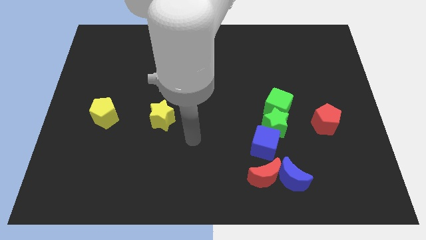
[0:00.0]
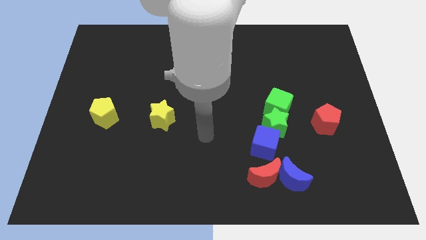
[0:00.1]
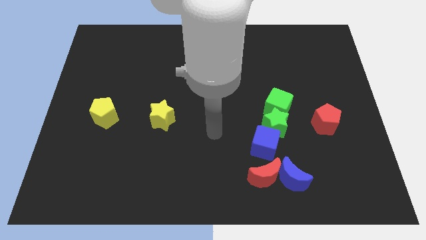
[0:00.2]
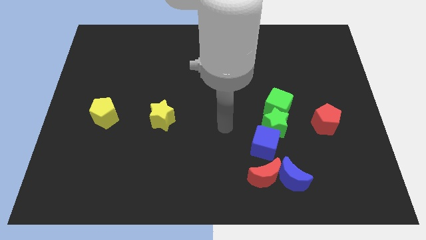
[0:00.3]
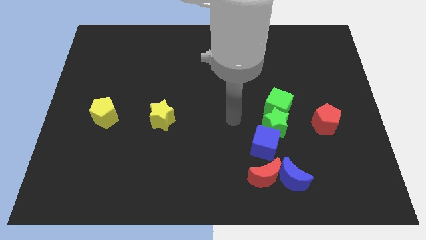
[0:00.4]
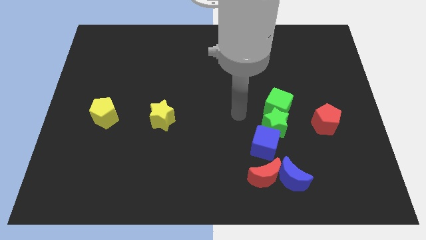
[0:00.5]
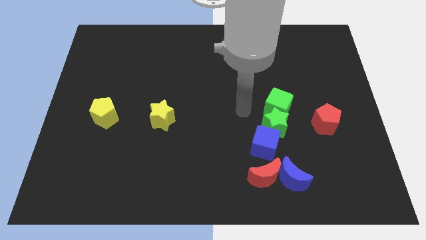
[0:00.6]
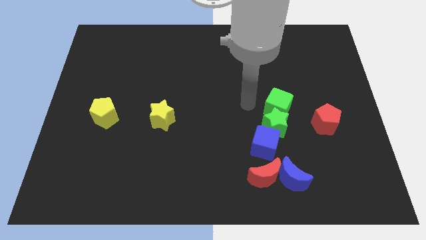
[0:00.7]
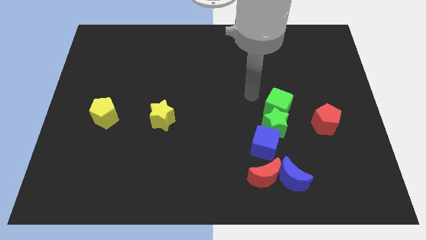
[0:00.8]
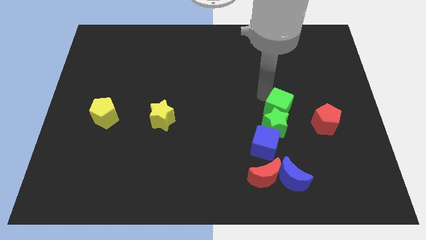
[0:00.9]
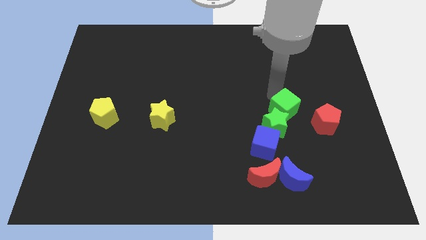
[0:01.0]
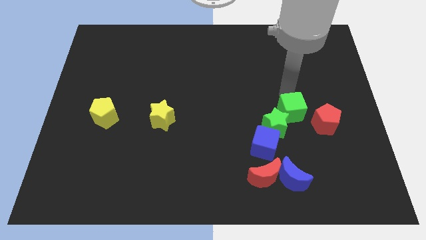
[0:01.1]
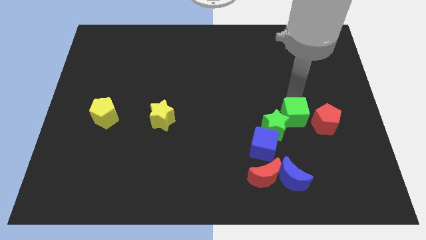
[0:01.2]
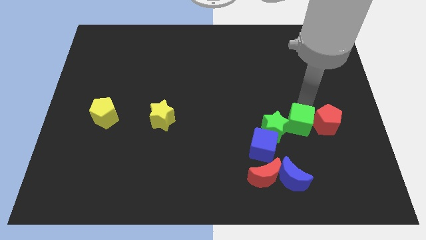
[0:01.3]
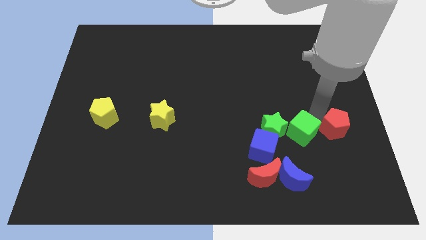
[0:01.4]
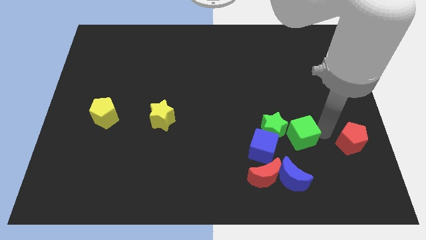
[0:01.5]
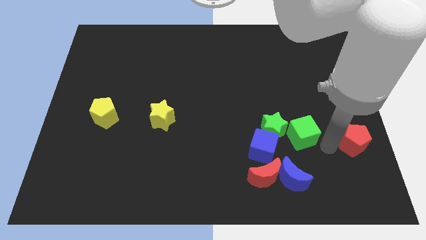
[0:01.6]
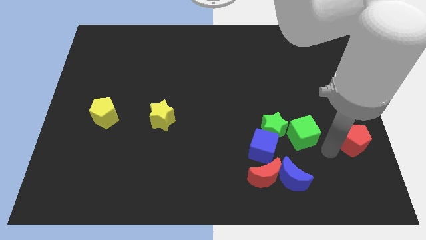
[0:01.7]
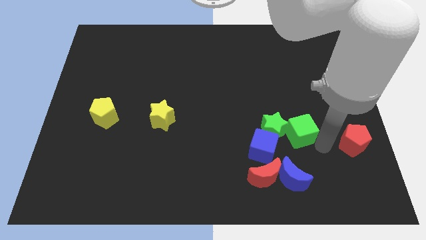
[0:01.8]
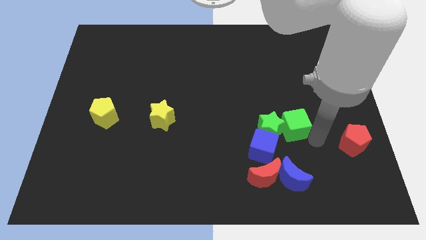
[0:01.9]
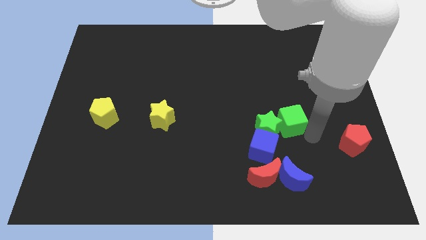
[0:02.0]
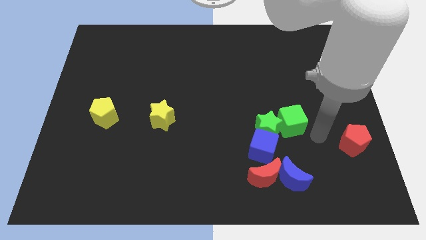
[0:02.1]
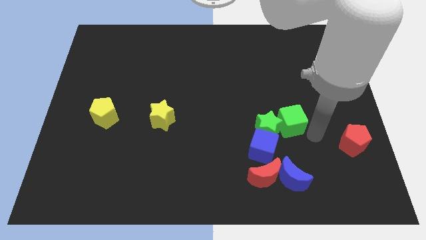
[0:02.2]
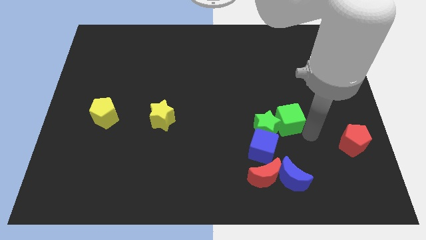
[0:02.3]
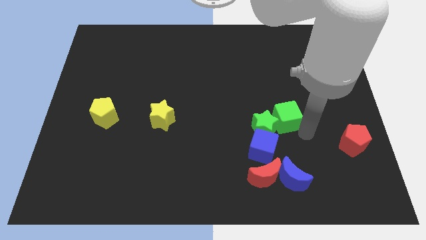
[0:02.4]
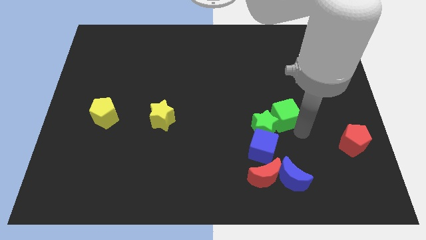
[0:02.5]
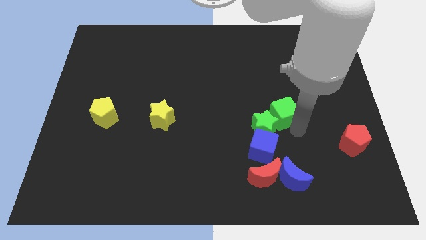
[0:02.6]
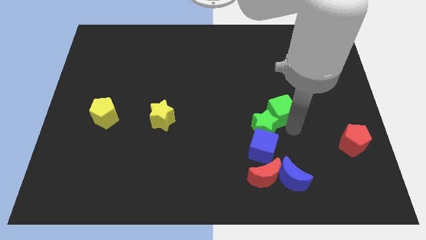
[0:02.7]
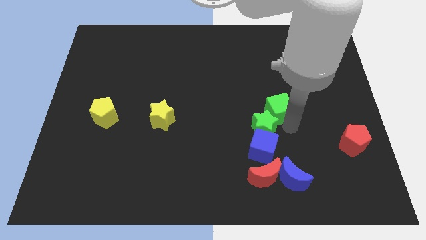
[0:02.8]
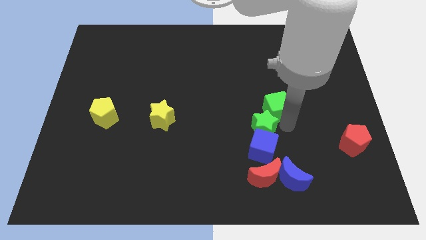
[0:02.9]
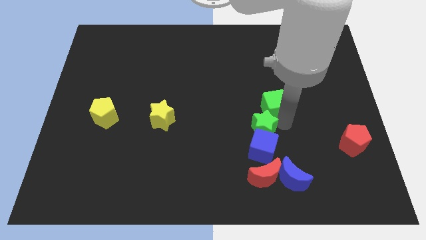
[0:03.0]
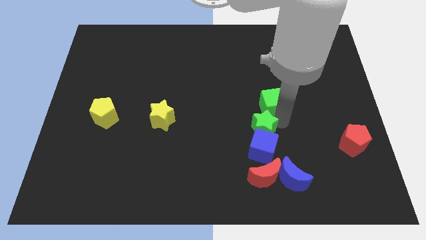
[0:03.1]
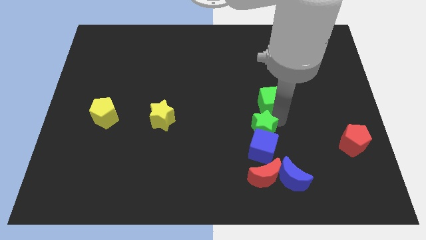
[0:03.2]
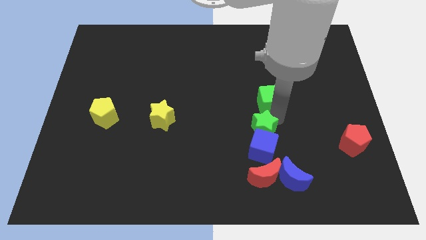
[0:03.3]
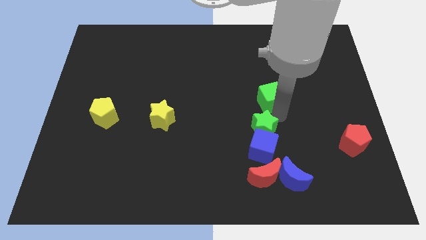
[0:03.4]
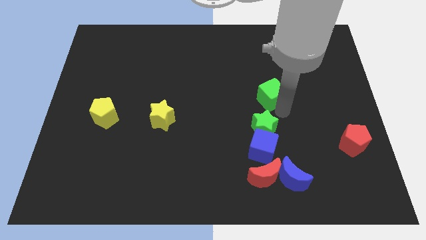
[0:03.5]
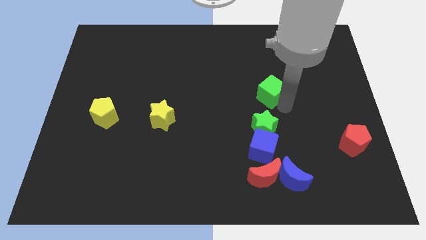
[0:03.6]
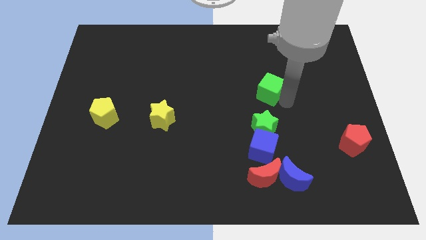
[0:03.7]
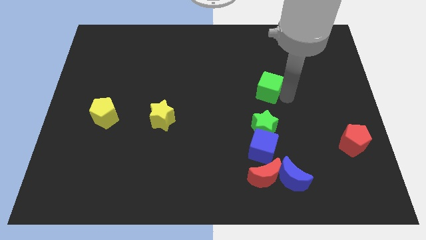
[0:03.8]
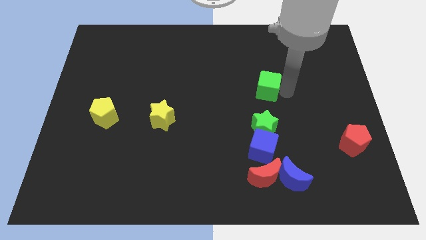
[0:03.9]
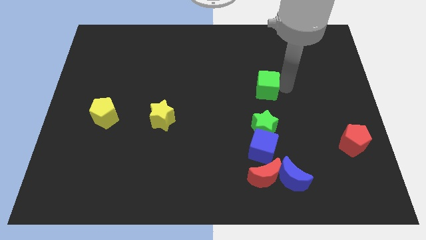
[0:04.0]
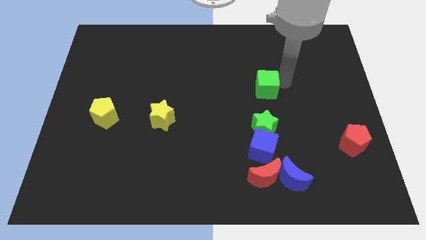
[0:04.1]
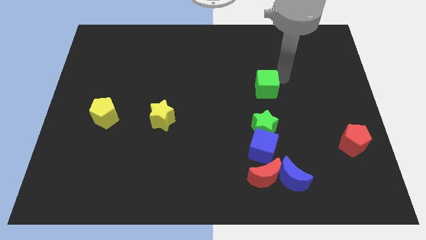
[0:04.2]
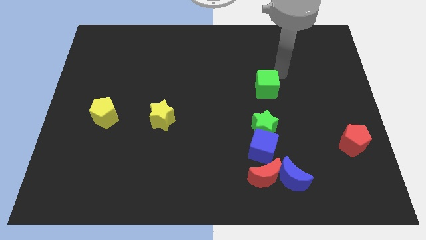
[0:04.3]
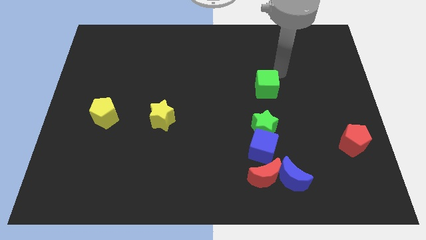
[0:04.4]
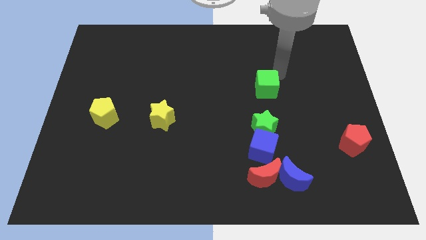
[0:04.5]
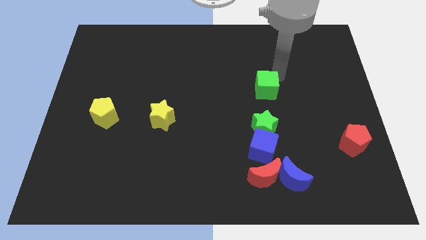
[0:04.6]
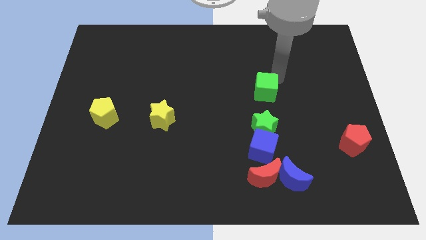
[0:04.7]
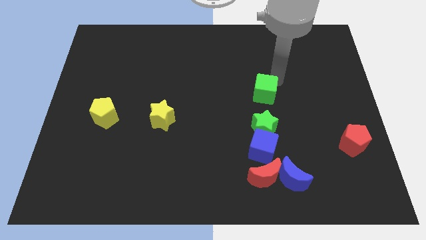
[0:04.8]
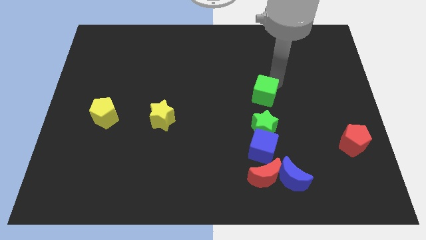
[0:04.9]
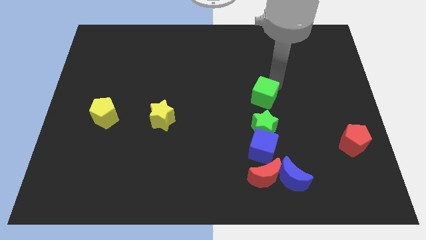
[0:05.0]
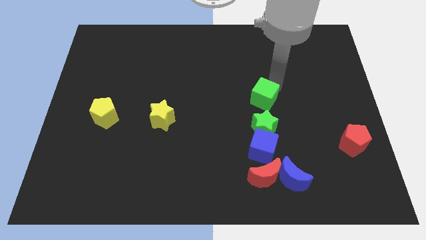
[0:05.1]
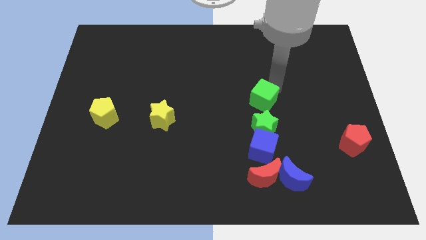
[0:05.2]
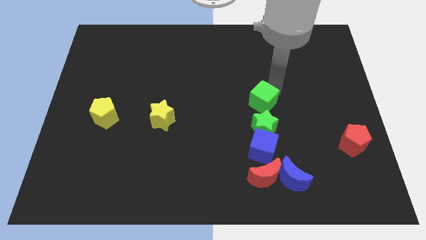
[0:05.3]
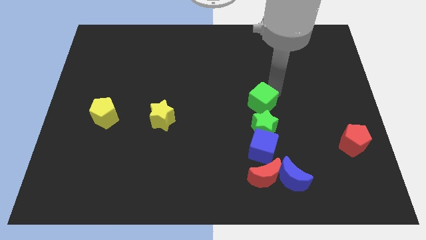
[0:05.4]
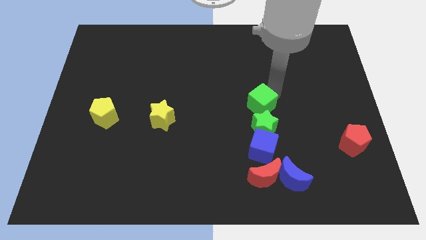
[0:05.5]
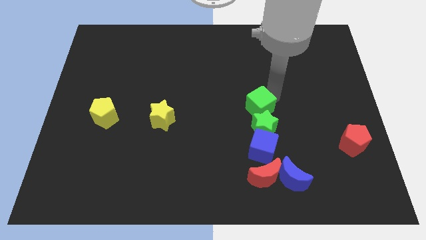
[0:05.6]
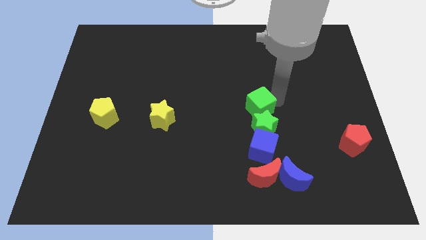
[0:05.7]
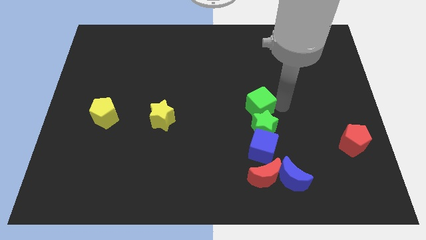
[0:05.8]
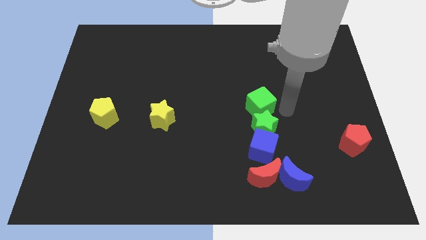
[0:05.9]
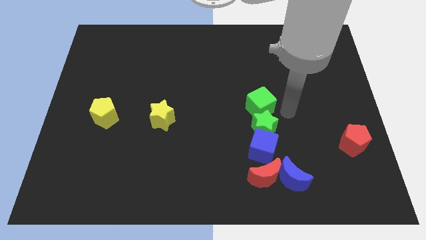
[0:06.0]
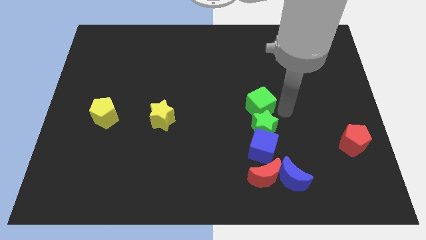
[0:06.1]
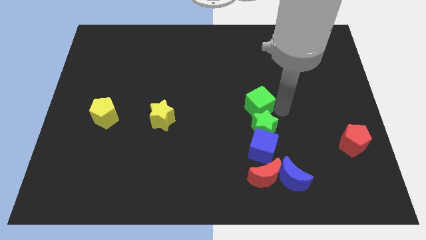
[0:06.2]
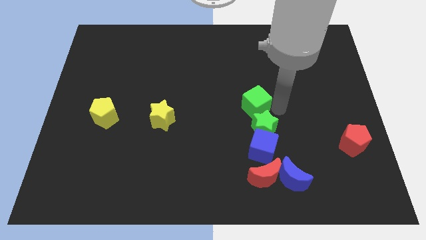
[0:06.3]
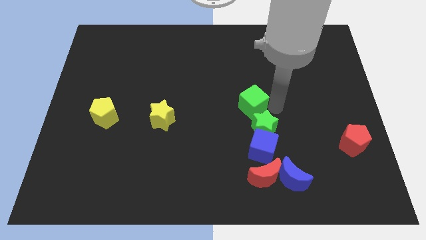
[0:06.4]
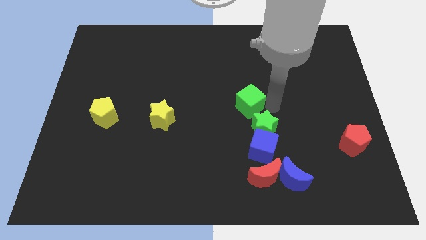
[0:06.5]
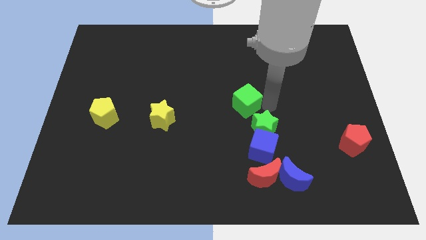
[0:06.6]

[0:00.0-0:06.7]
slide the green cube left slightly

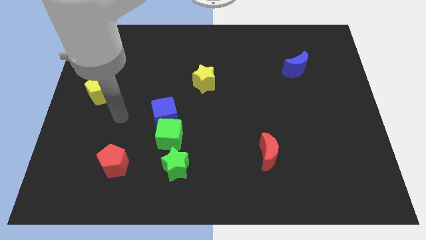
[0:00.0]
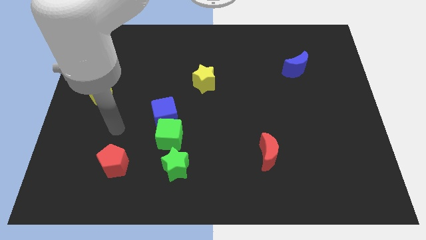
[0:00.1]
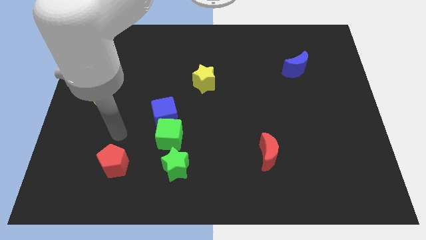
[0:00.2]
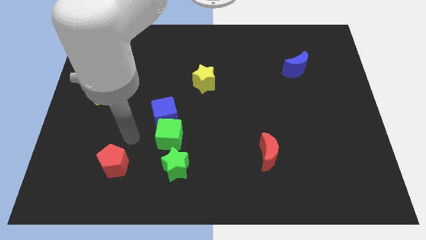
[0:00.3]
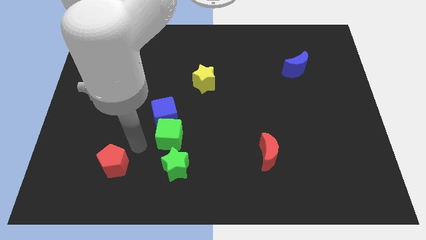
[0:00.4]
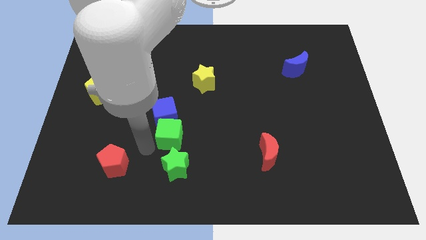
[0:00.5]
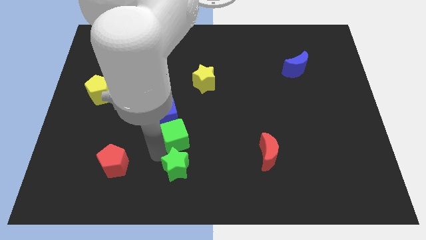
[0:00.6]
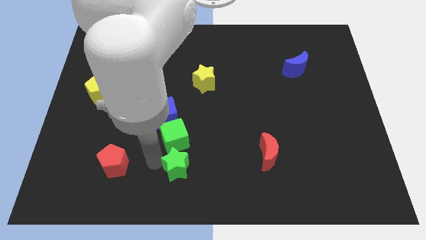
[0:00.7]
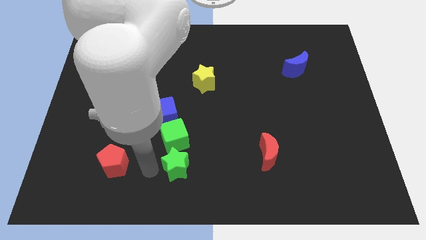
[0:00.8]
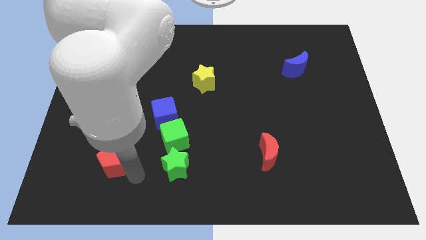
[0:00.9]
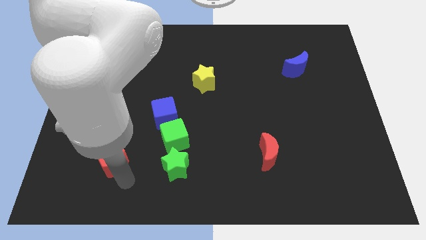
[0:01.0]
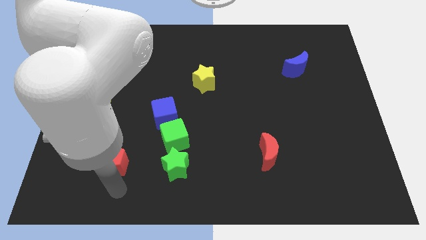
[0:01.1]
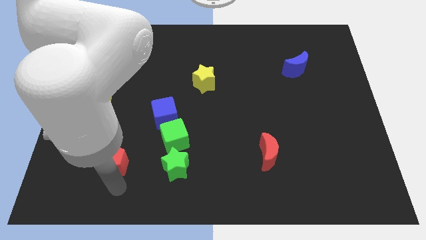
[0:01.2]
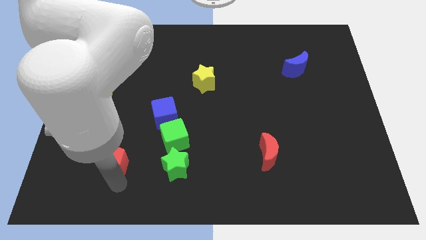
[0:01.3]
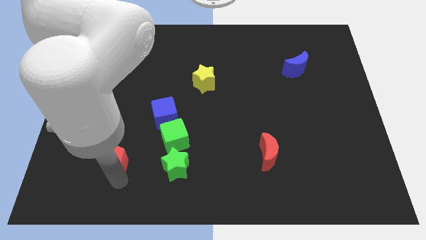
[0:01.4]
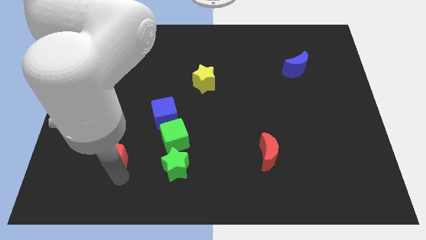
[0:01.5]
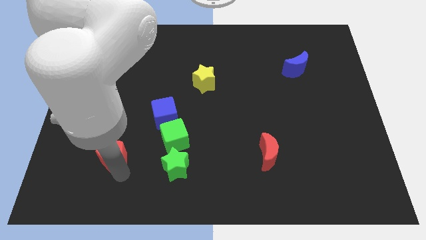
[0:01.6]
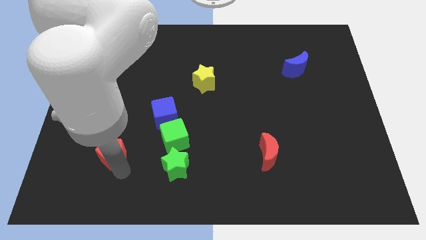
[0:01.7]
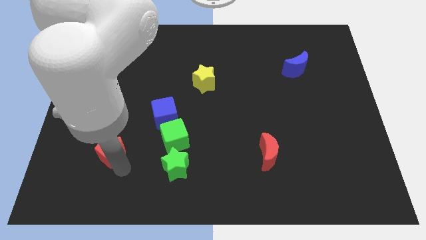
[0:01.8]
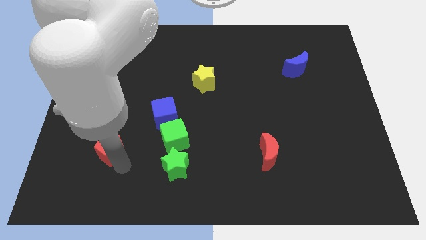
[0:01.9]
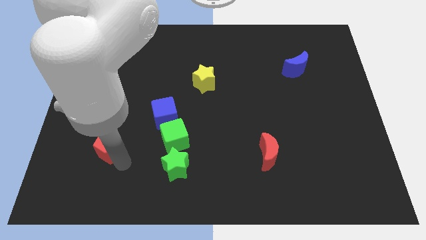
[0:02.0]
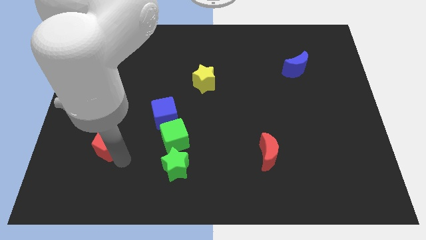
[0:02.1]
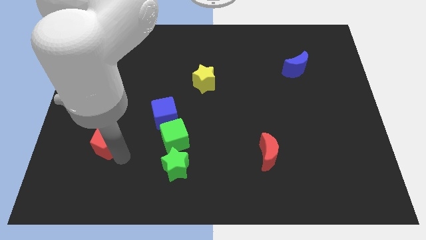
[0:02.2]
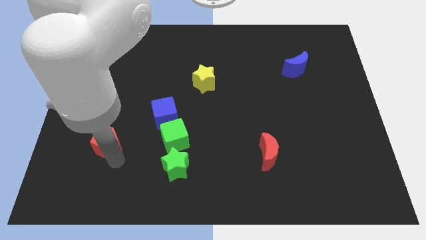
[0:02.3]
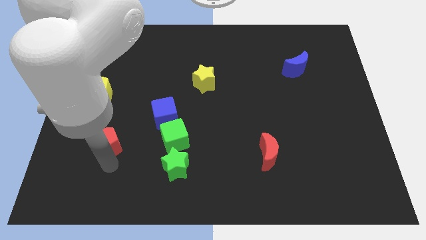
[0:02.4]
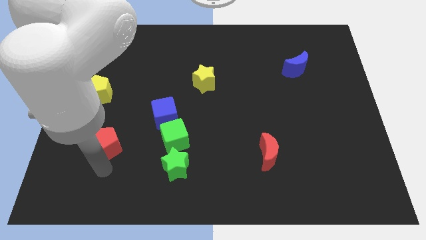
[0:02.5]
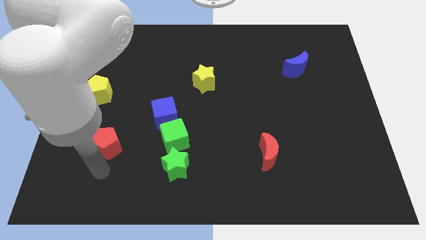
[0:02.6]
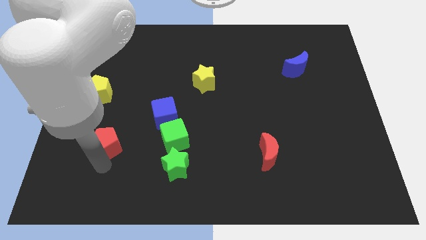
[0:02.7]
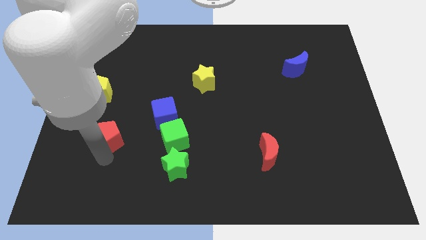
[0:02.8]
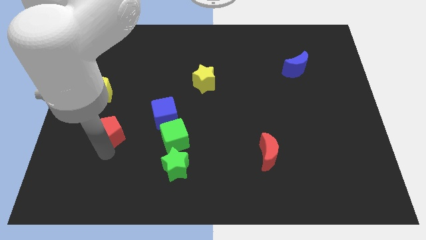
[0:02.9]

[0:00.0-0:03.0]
slightly push the red pentagon up
